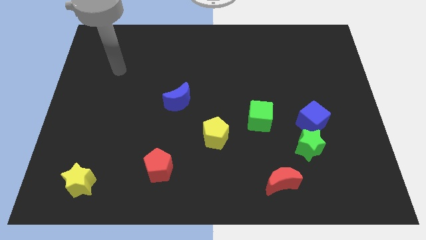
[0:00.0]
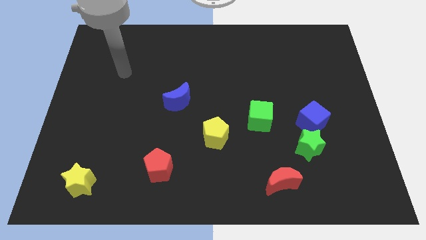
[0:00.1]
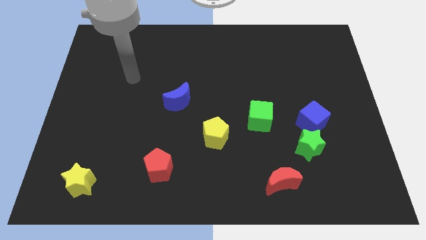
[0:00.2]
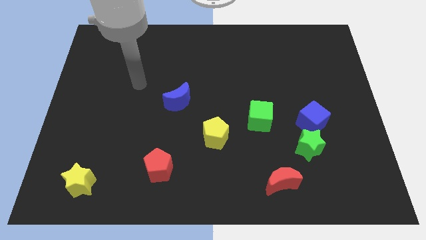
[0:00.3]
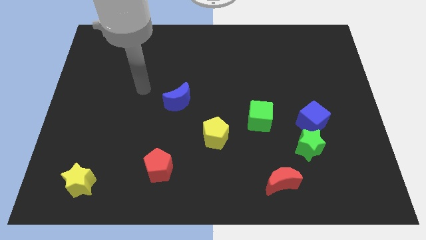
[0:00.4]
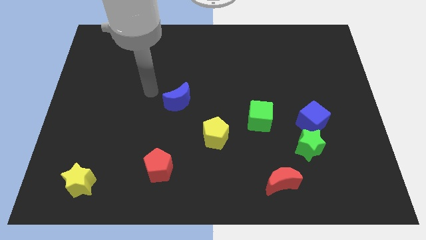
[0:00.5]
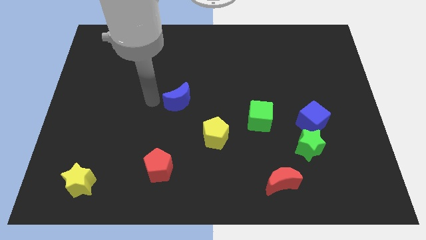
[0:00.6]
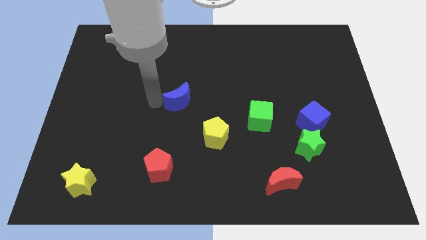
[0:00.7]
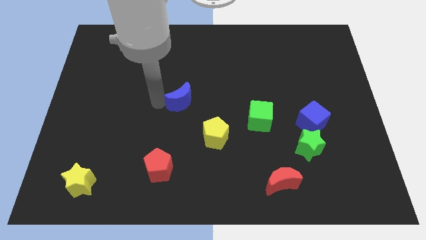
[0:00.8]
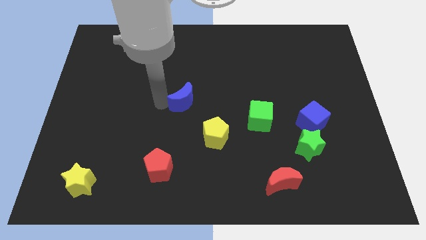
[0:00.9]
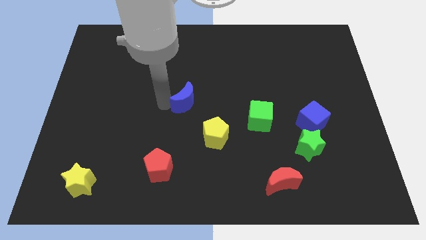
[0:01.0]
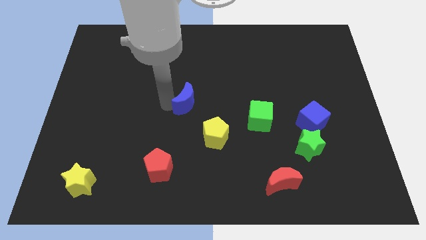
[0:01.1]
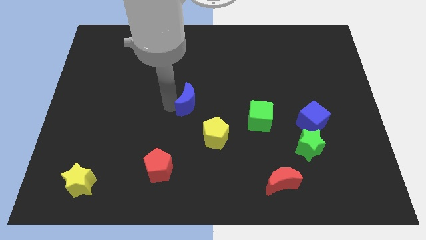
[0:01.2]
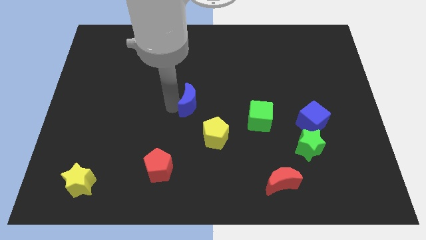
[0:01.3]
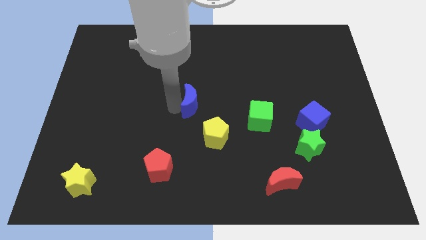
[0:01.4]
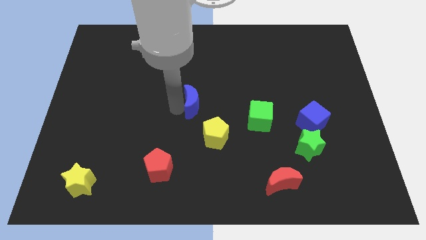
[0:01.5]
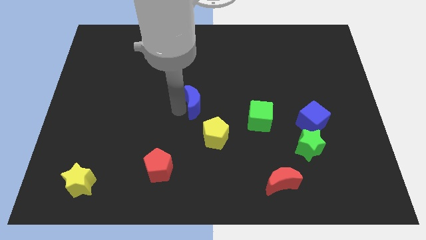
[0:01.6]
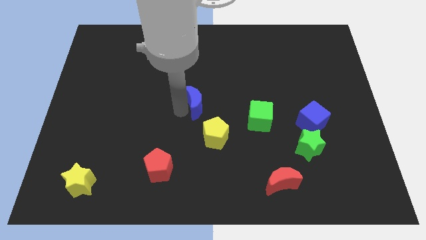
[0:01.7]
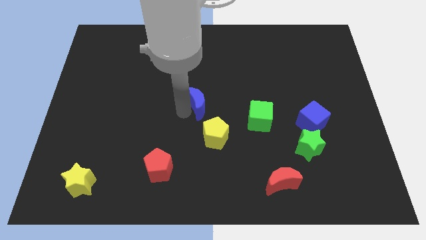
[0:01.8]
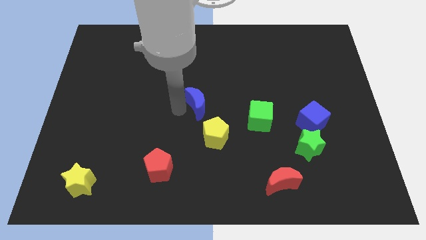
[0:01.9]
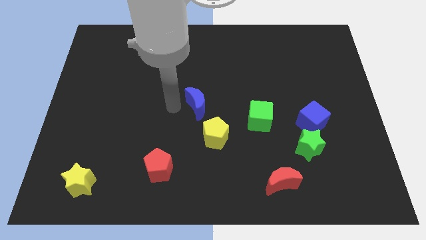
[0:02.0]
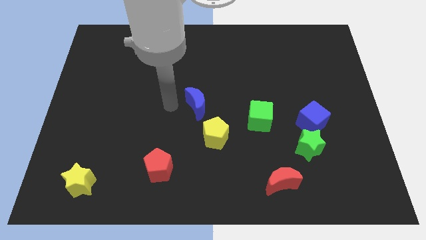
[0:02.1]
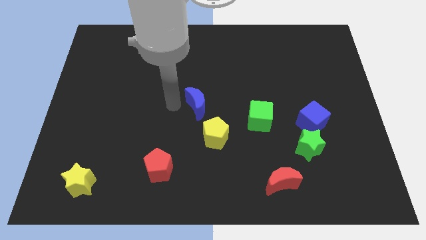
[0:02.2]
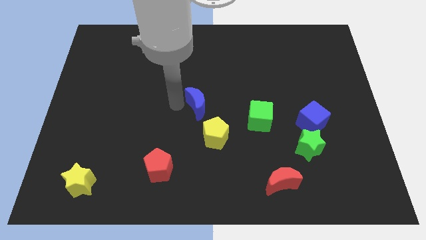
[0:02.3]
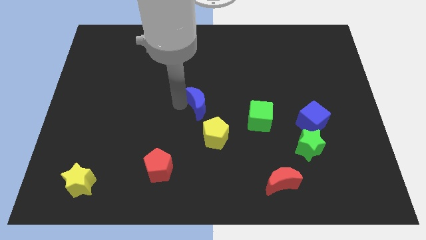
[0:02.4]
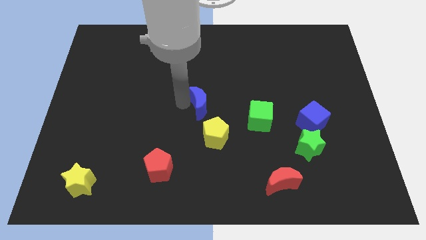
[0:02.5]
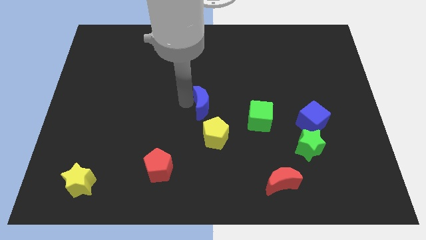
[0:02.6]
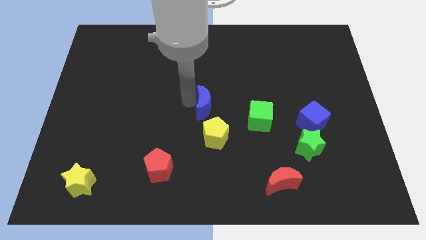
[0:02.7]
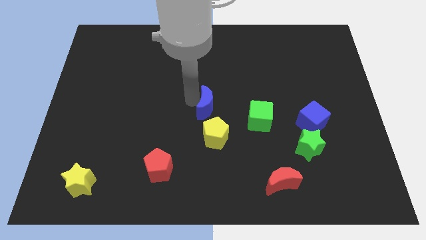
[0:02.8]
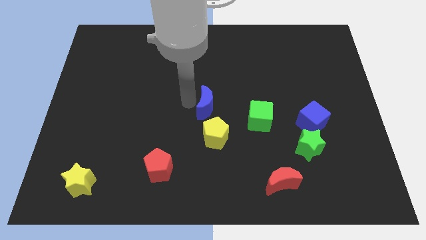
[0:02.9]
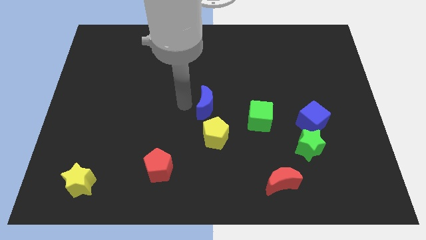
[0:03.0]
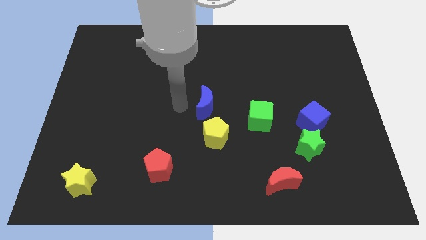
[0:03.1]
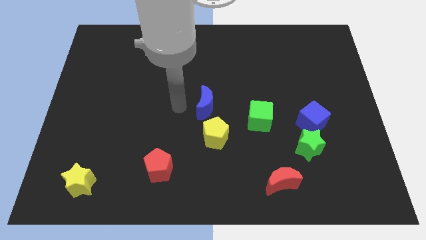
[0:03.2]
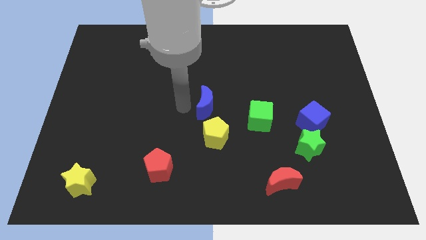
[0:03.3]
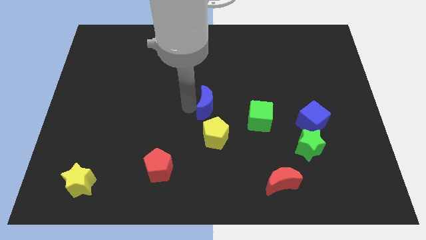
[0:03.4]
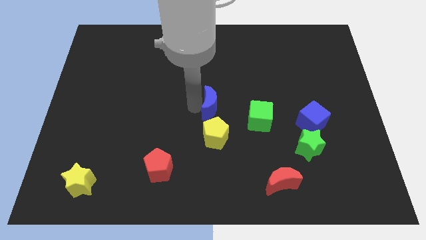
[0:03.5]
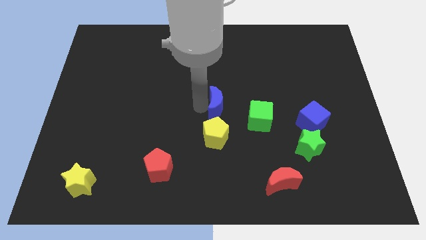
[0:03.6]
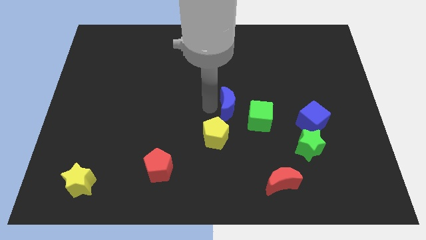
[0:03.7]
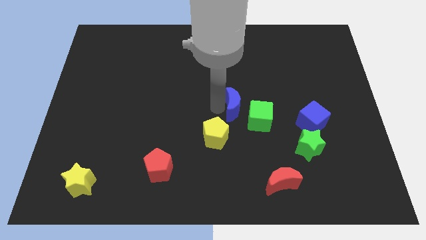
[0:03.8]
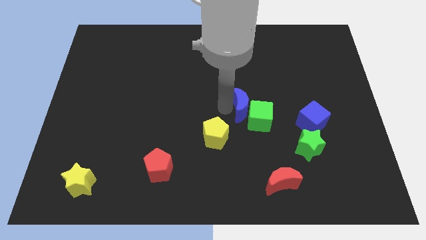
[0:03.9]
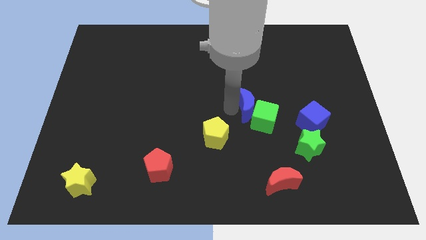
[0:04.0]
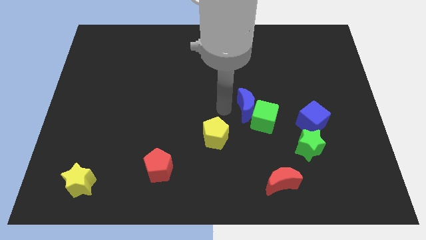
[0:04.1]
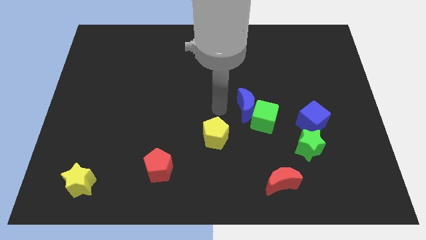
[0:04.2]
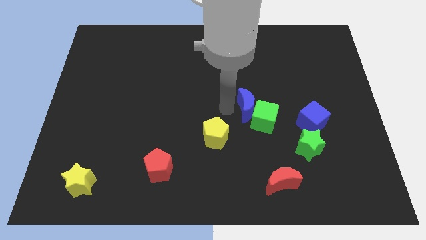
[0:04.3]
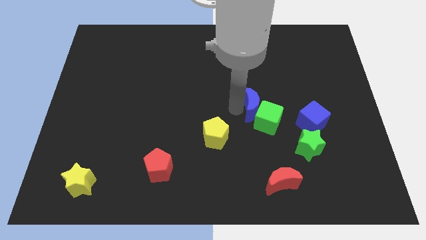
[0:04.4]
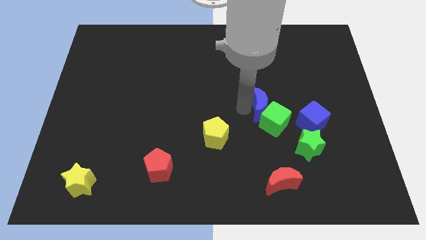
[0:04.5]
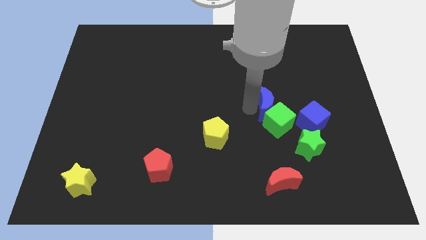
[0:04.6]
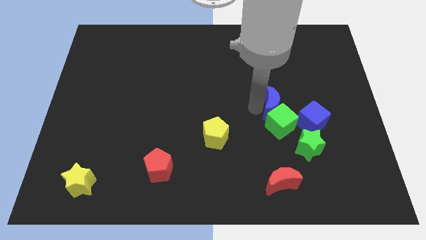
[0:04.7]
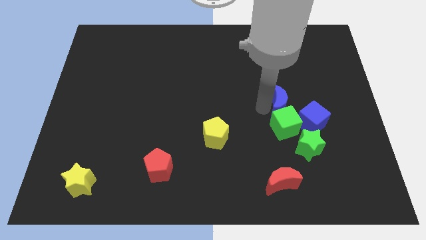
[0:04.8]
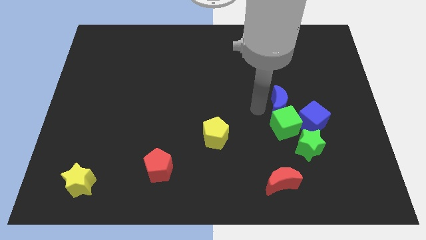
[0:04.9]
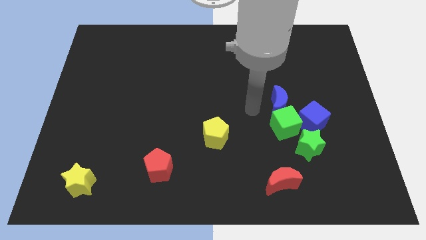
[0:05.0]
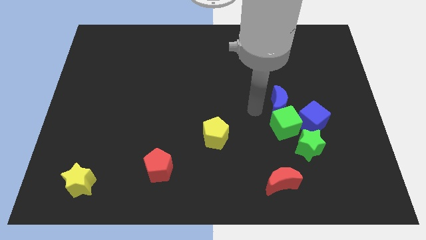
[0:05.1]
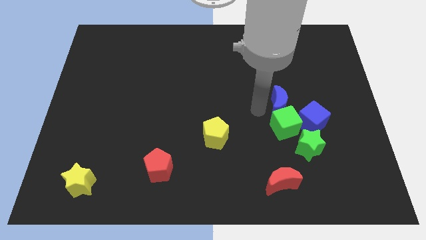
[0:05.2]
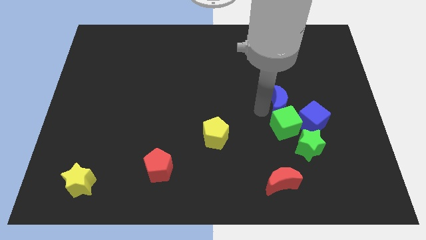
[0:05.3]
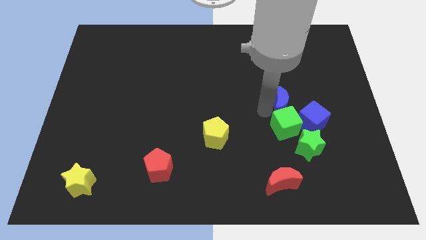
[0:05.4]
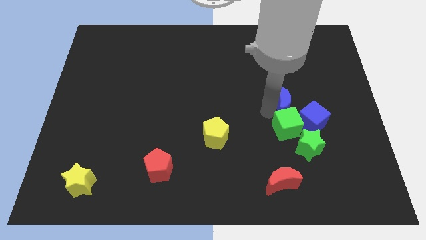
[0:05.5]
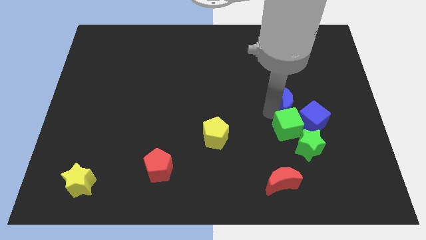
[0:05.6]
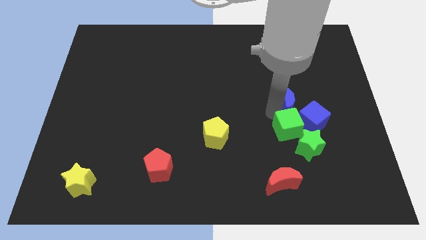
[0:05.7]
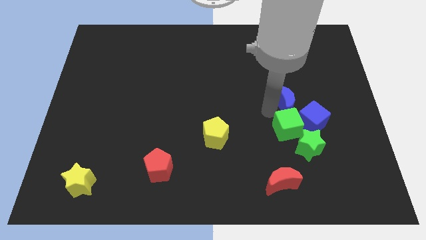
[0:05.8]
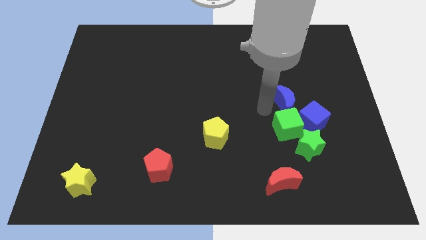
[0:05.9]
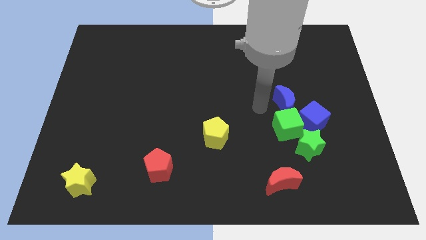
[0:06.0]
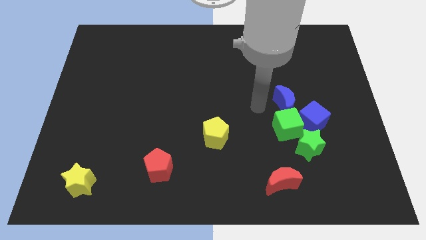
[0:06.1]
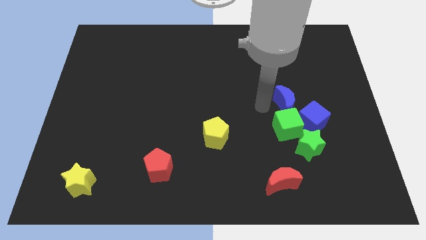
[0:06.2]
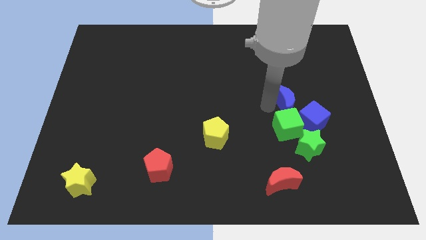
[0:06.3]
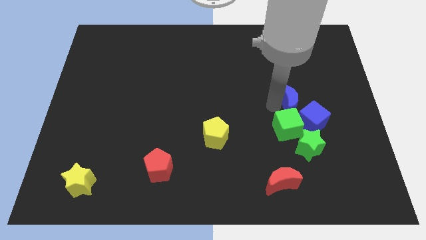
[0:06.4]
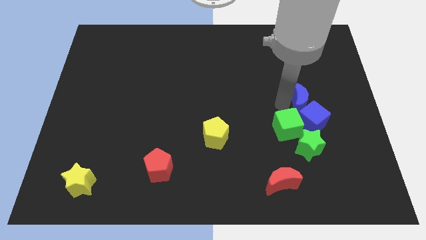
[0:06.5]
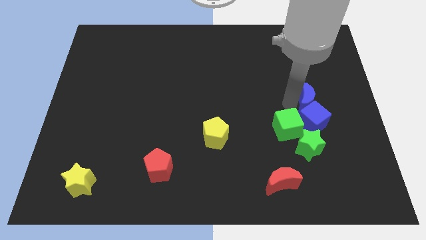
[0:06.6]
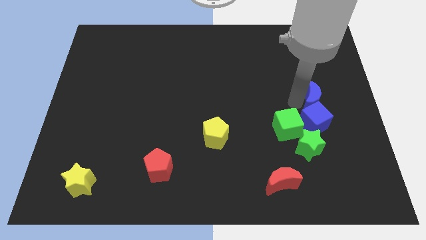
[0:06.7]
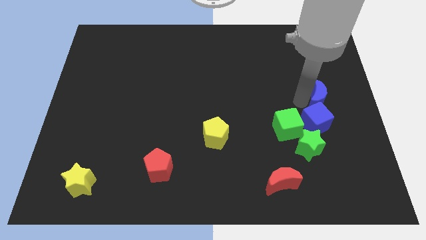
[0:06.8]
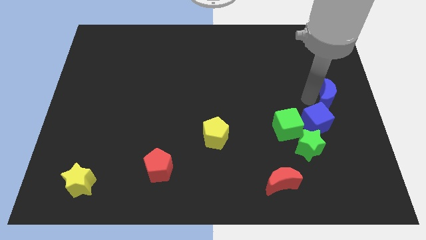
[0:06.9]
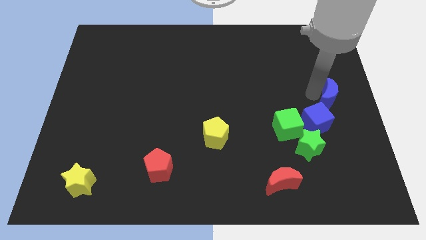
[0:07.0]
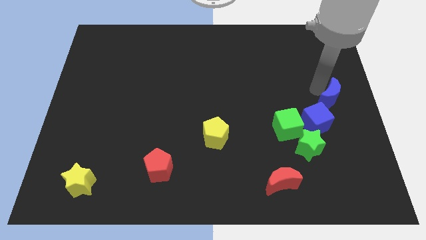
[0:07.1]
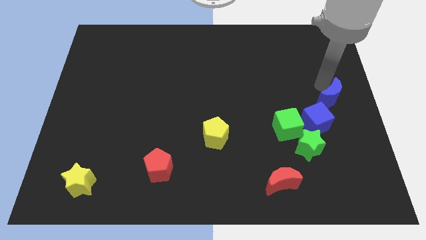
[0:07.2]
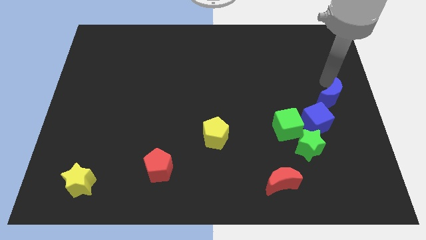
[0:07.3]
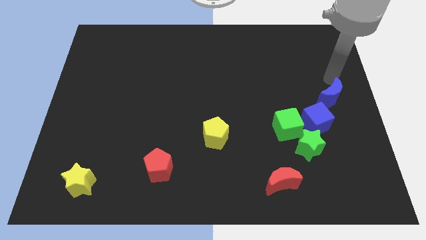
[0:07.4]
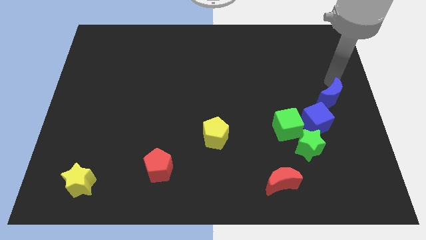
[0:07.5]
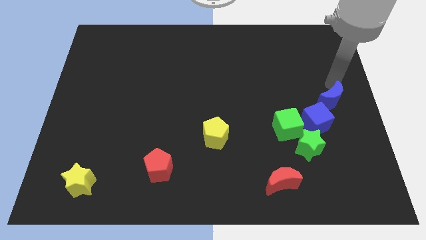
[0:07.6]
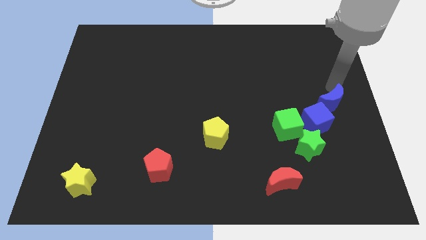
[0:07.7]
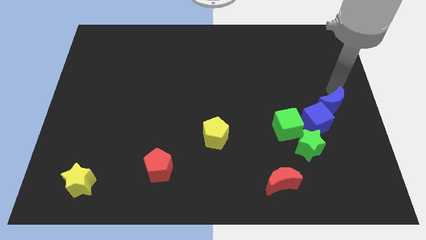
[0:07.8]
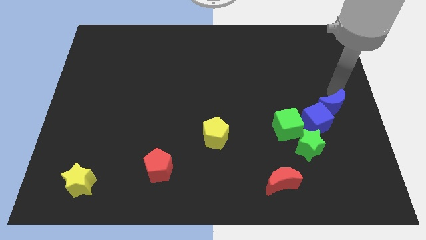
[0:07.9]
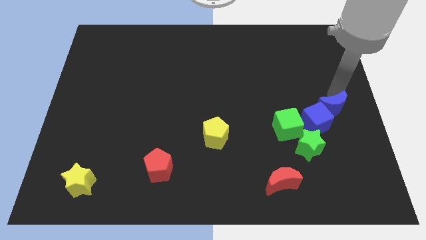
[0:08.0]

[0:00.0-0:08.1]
move the blue moon diagonally up and to the right of the green star

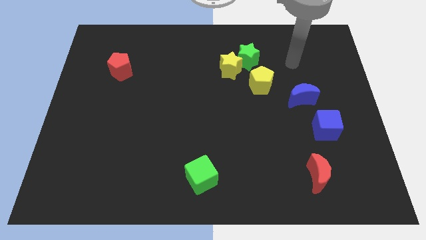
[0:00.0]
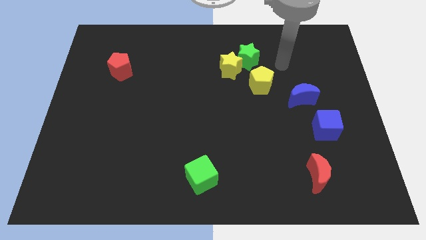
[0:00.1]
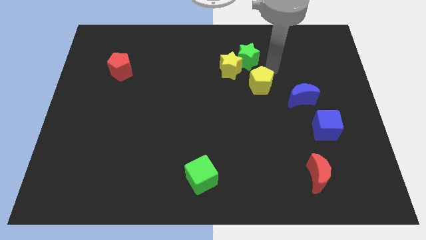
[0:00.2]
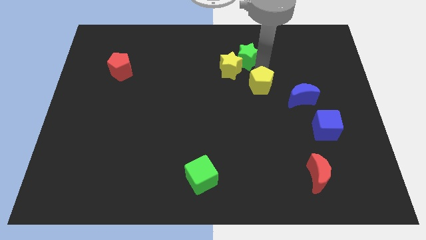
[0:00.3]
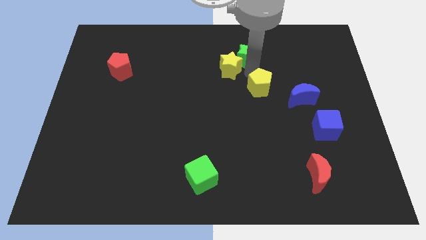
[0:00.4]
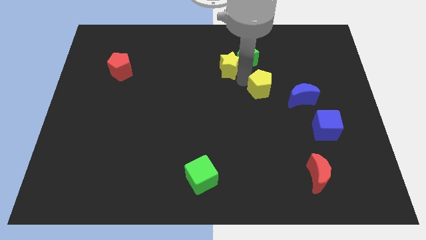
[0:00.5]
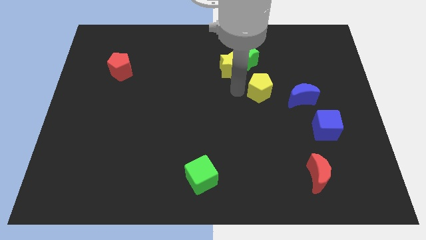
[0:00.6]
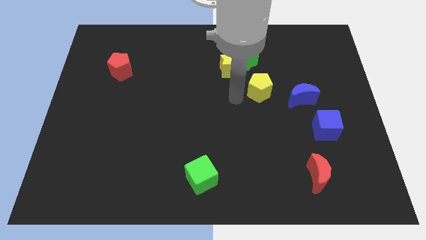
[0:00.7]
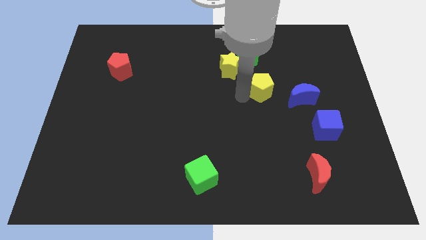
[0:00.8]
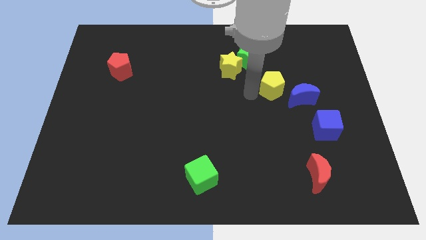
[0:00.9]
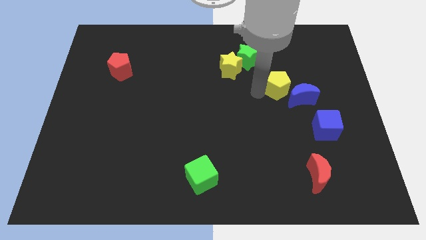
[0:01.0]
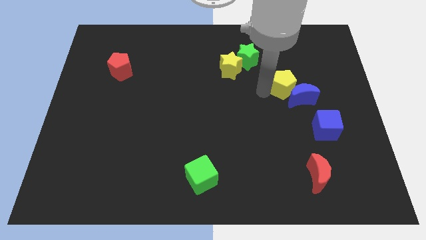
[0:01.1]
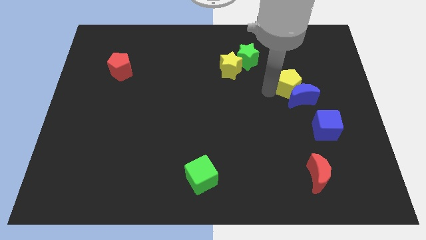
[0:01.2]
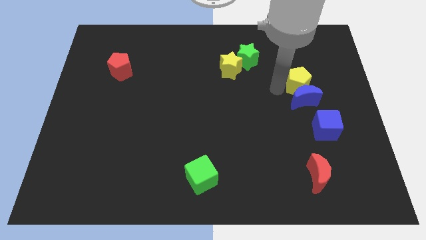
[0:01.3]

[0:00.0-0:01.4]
slide the yellow pentagon to the top right of the blue moon
